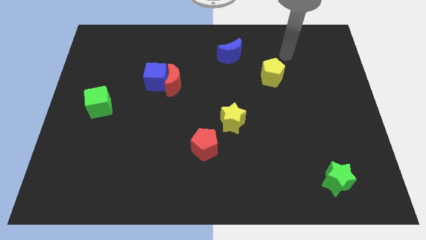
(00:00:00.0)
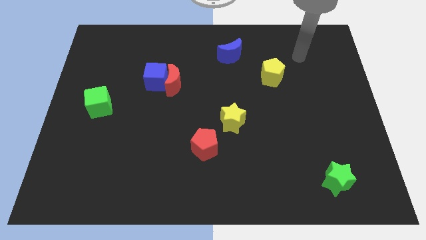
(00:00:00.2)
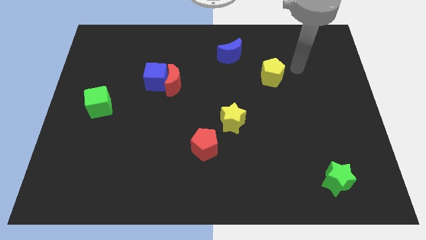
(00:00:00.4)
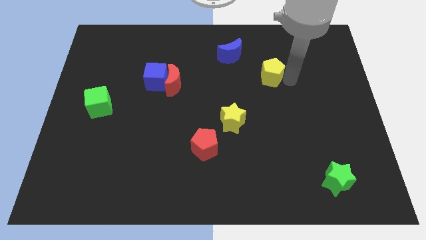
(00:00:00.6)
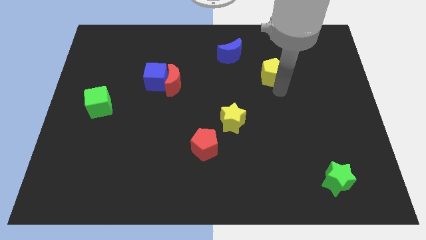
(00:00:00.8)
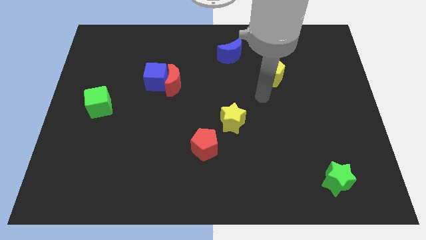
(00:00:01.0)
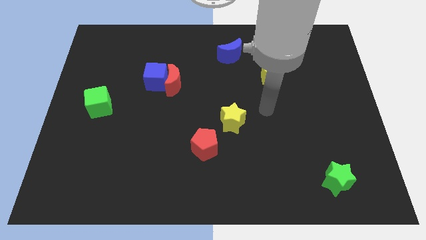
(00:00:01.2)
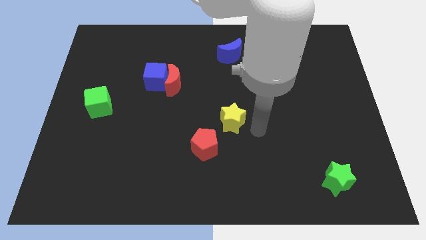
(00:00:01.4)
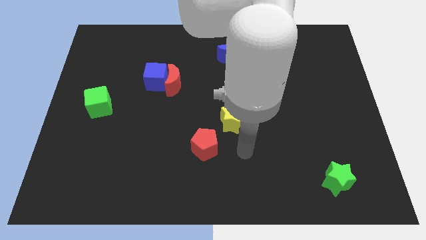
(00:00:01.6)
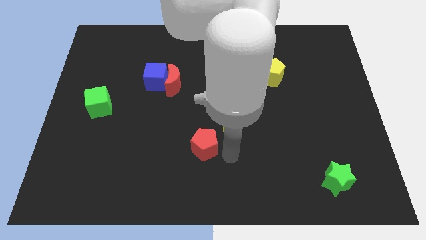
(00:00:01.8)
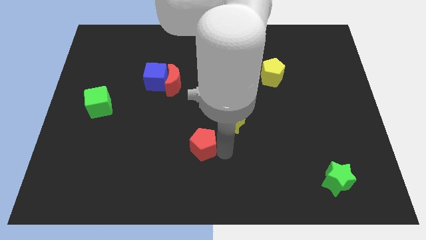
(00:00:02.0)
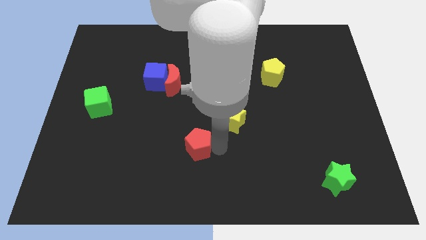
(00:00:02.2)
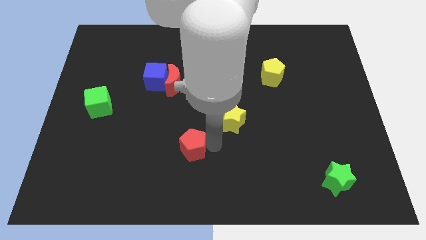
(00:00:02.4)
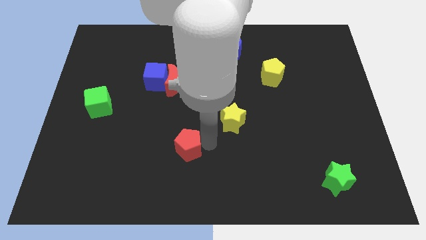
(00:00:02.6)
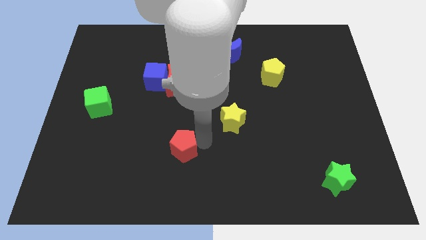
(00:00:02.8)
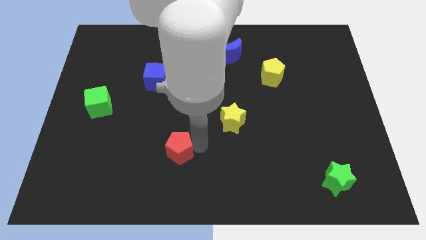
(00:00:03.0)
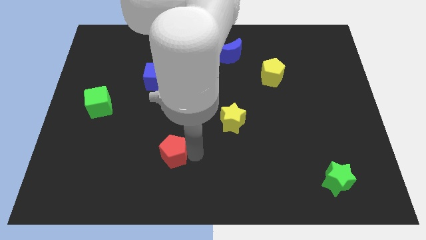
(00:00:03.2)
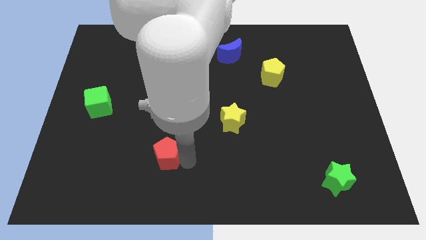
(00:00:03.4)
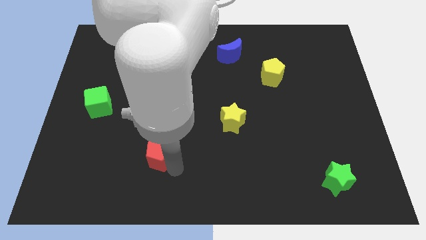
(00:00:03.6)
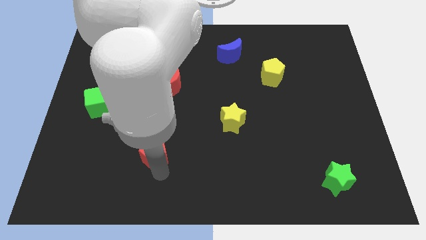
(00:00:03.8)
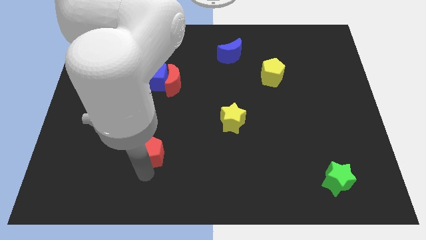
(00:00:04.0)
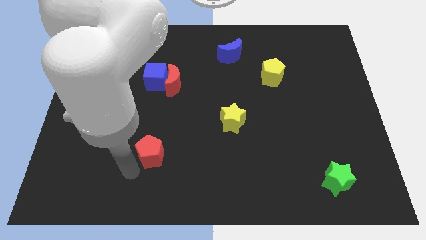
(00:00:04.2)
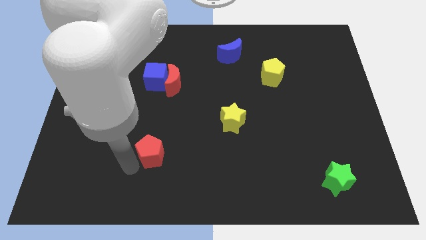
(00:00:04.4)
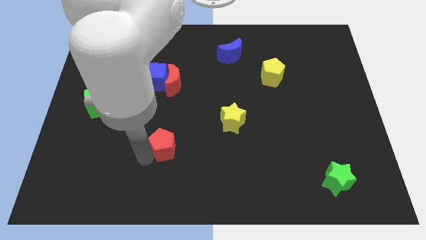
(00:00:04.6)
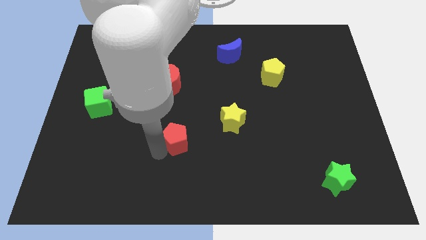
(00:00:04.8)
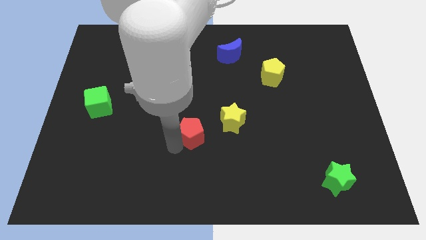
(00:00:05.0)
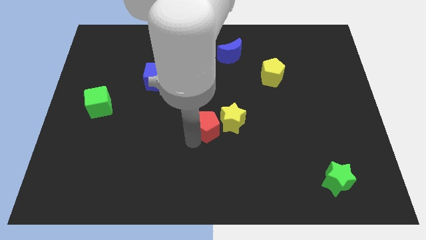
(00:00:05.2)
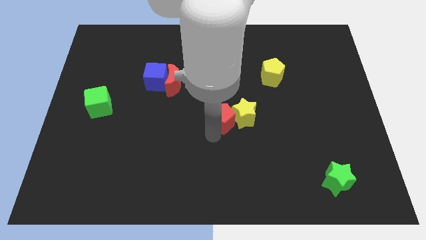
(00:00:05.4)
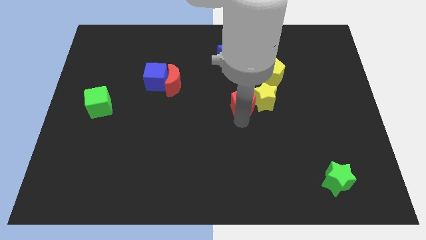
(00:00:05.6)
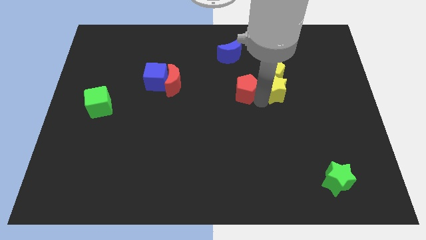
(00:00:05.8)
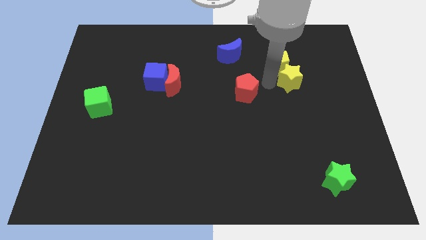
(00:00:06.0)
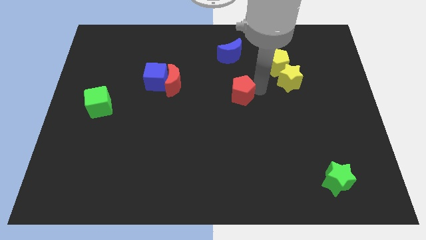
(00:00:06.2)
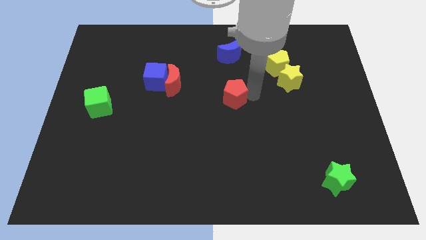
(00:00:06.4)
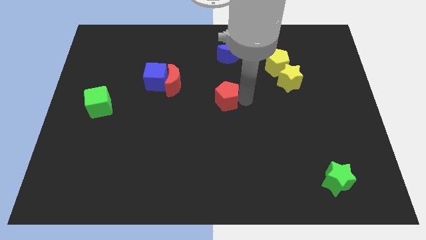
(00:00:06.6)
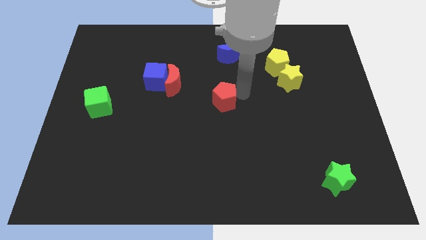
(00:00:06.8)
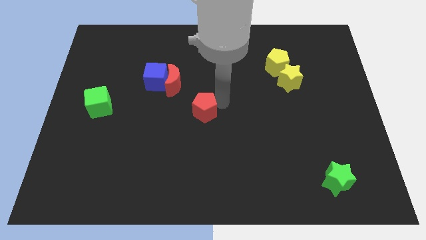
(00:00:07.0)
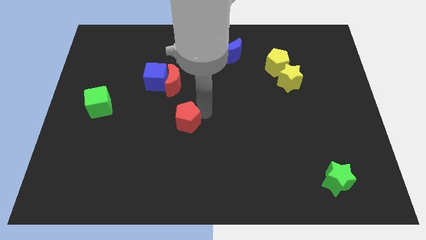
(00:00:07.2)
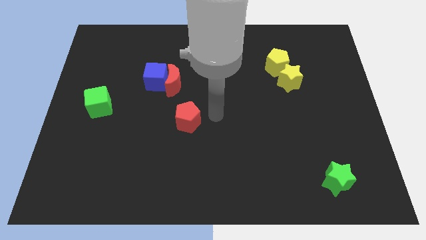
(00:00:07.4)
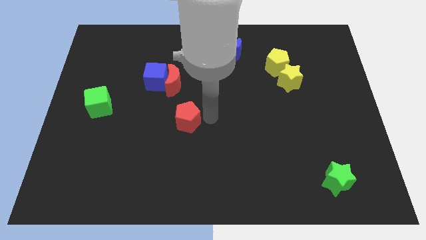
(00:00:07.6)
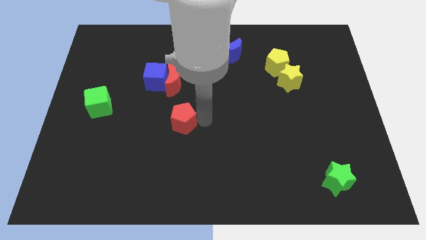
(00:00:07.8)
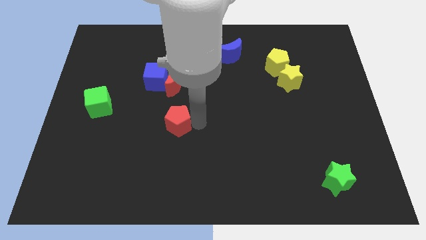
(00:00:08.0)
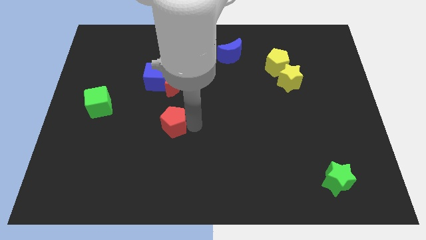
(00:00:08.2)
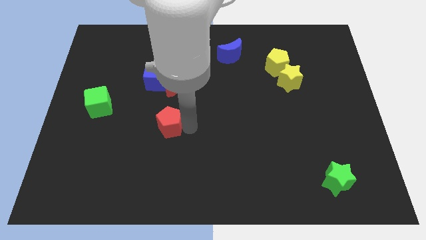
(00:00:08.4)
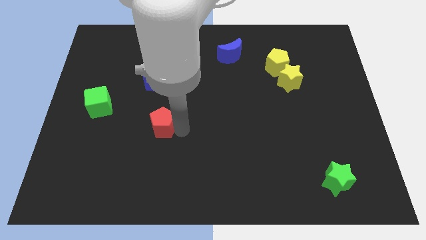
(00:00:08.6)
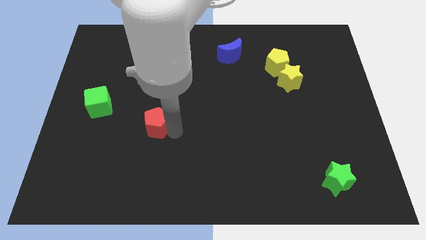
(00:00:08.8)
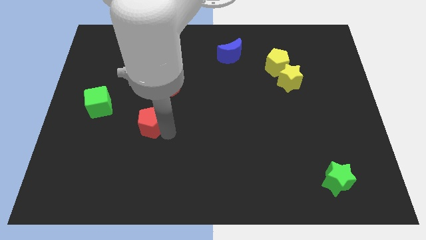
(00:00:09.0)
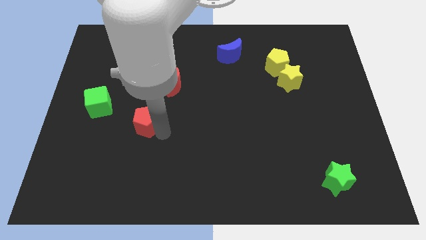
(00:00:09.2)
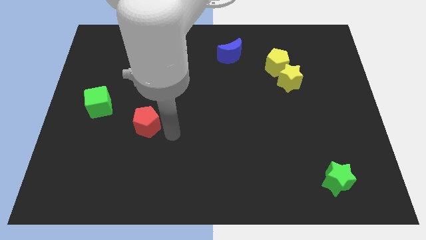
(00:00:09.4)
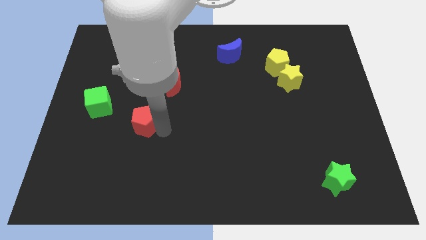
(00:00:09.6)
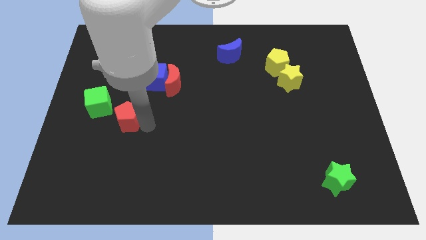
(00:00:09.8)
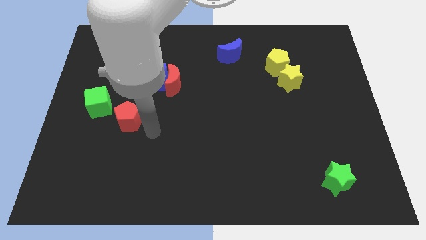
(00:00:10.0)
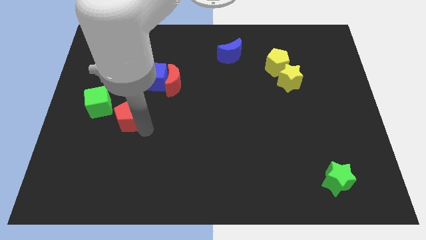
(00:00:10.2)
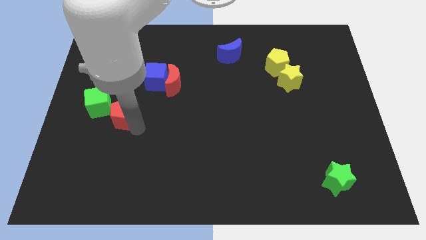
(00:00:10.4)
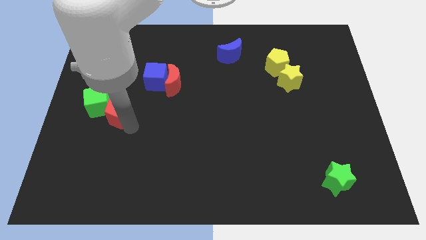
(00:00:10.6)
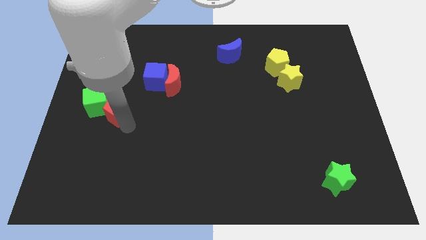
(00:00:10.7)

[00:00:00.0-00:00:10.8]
put the red pentagon to the green cube

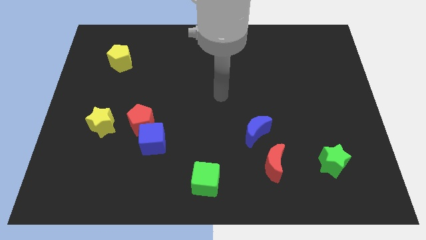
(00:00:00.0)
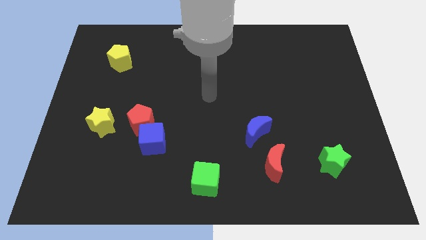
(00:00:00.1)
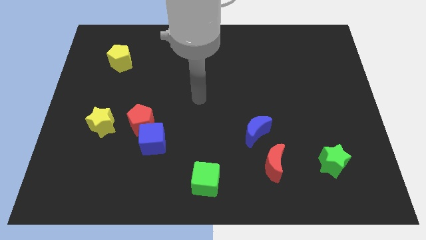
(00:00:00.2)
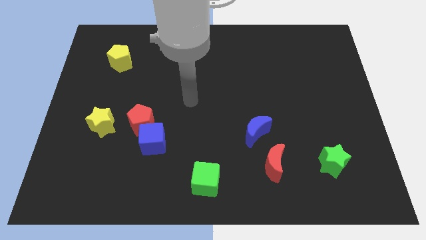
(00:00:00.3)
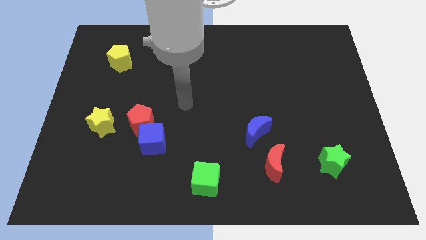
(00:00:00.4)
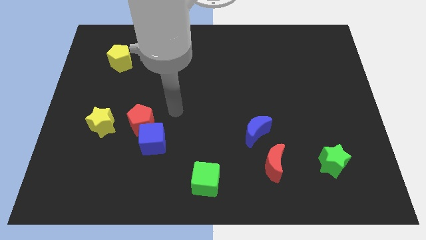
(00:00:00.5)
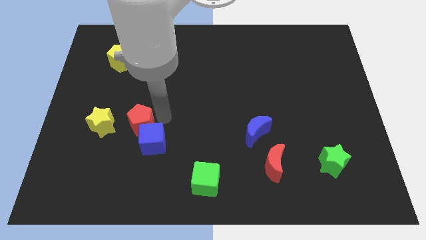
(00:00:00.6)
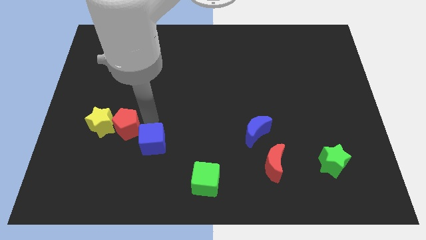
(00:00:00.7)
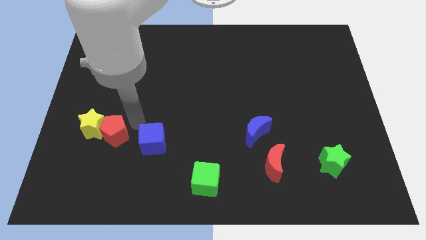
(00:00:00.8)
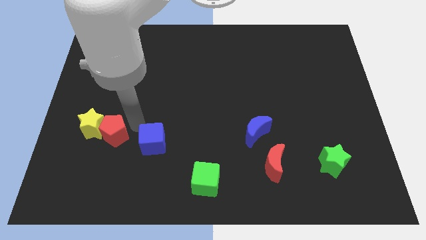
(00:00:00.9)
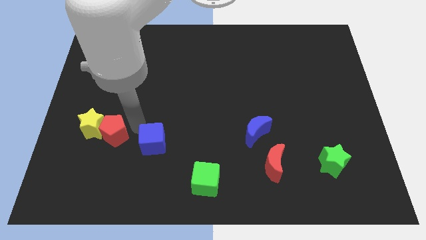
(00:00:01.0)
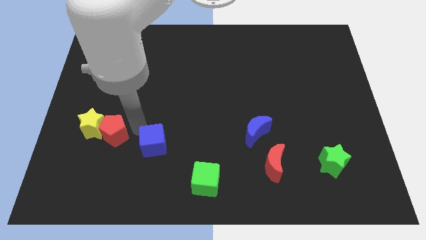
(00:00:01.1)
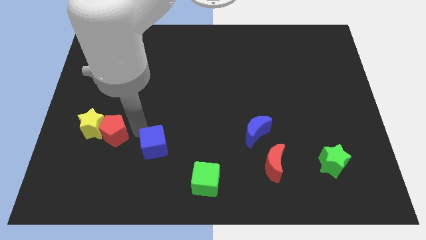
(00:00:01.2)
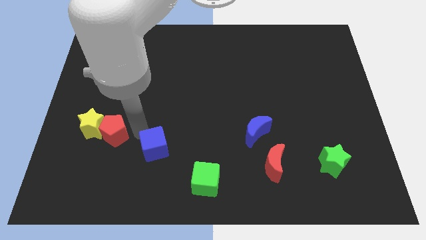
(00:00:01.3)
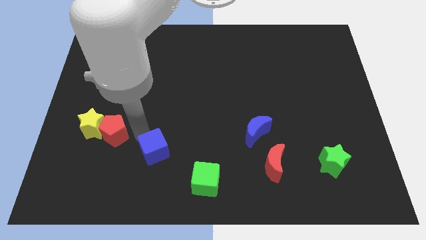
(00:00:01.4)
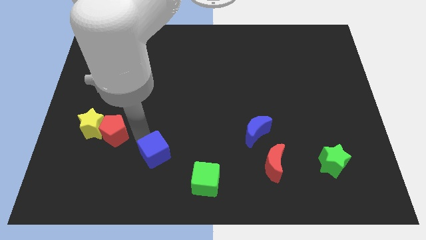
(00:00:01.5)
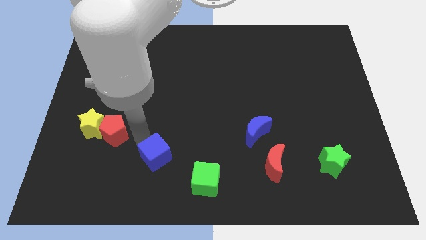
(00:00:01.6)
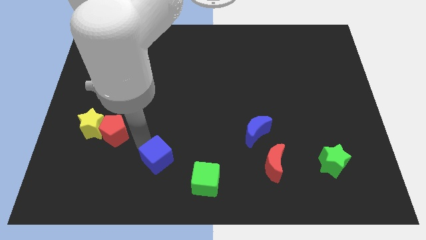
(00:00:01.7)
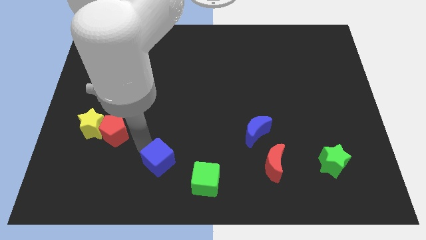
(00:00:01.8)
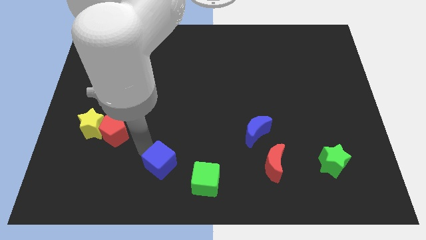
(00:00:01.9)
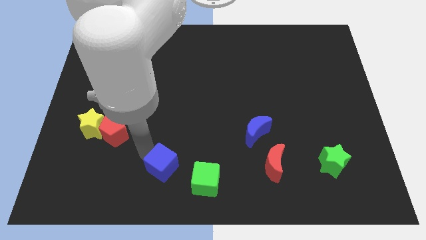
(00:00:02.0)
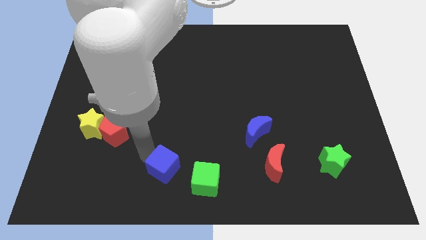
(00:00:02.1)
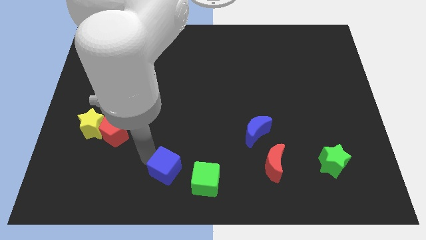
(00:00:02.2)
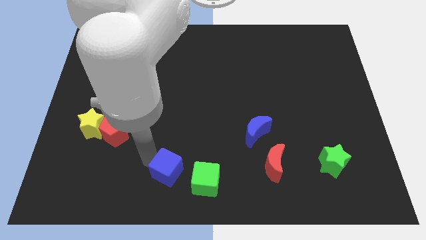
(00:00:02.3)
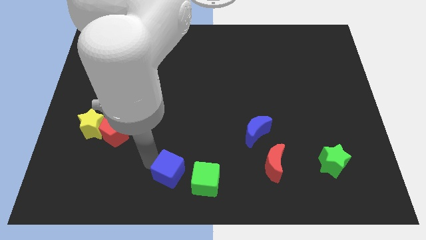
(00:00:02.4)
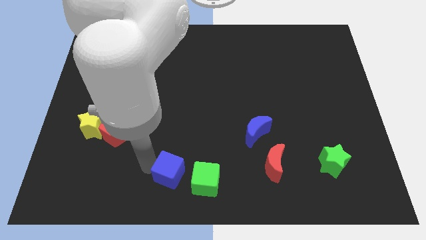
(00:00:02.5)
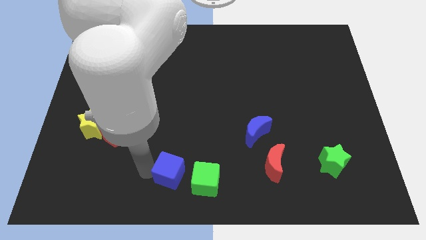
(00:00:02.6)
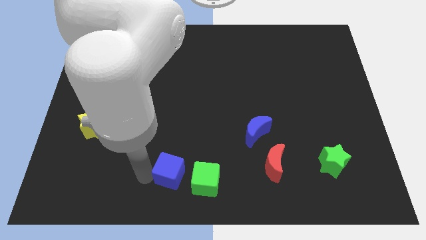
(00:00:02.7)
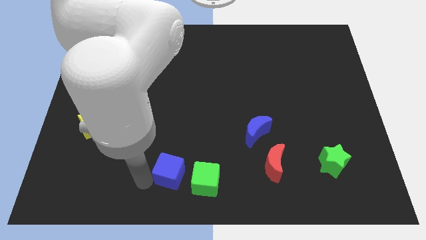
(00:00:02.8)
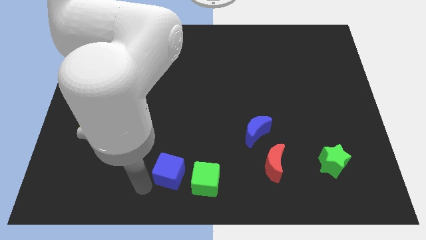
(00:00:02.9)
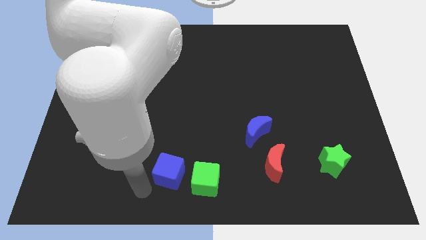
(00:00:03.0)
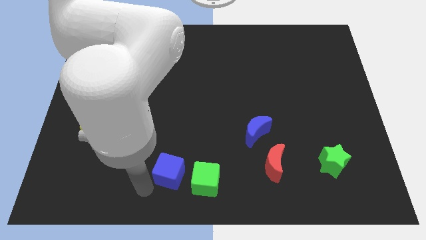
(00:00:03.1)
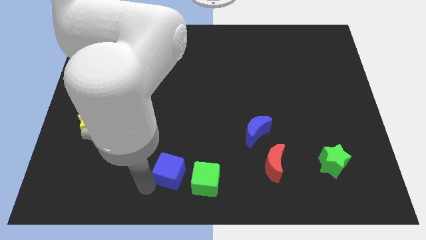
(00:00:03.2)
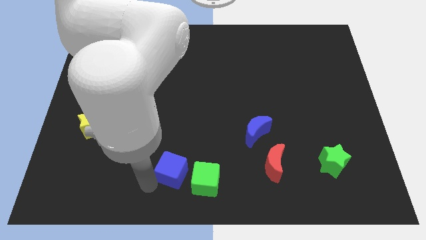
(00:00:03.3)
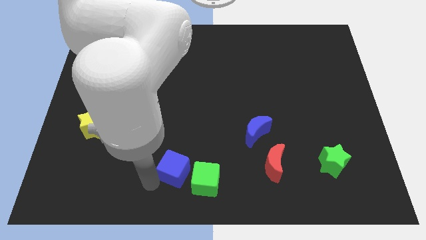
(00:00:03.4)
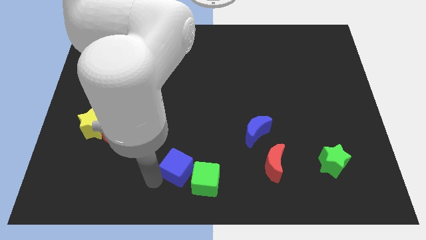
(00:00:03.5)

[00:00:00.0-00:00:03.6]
put the blue cube towards the green cube
